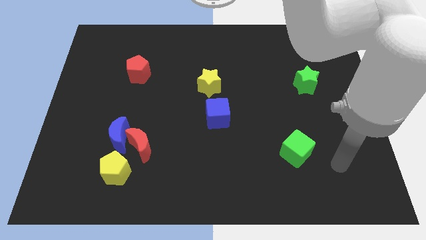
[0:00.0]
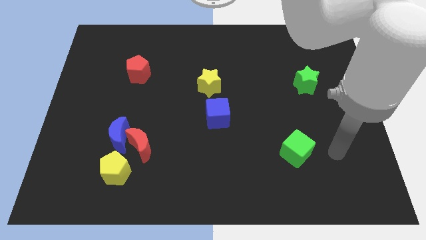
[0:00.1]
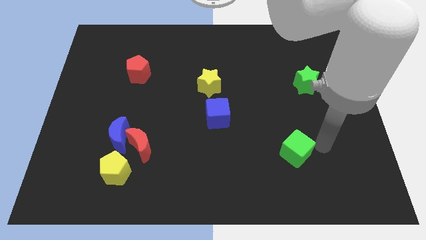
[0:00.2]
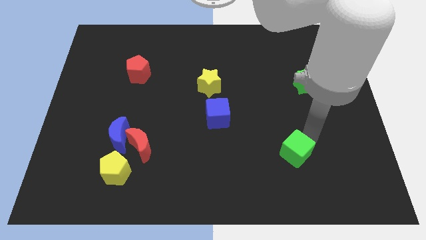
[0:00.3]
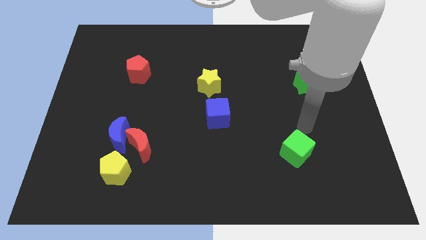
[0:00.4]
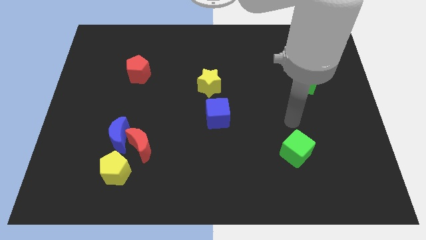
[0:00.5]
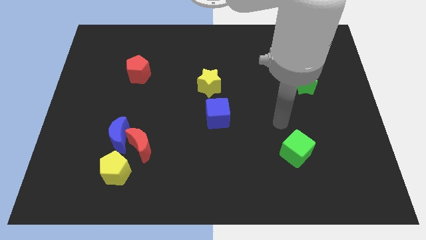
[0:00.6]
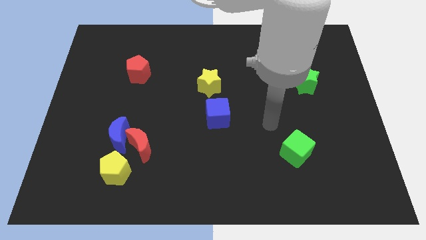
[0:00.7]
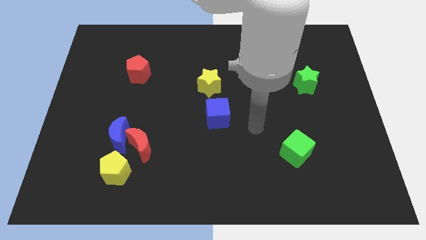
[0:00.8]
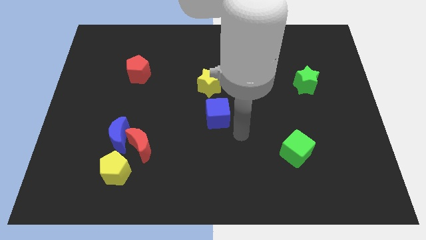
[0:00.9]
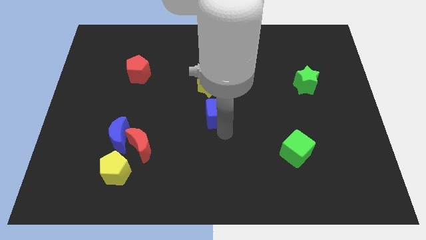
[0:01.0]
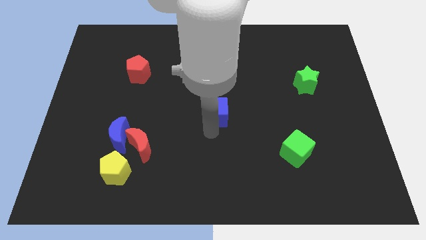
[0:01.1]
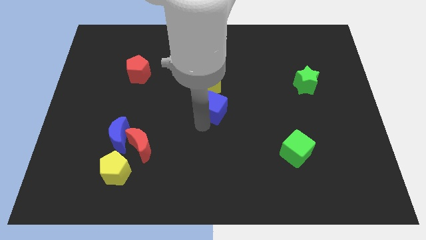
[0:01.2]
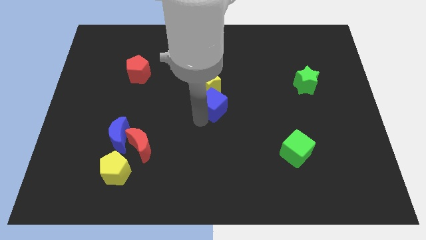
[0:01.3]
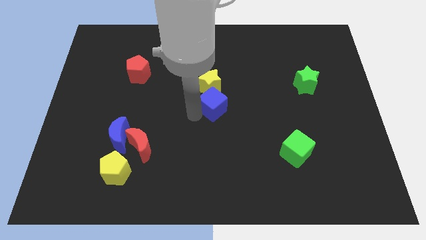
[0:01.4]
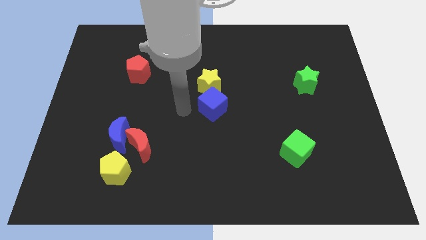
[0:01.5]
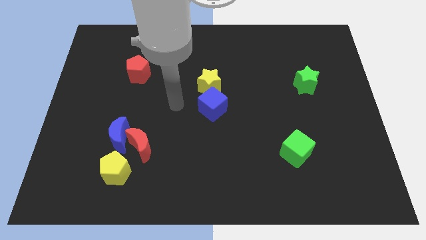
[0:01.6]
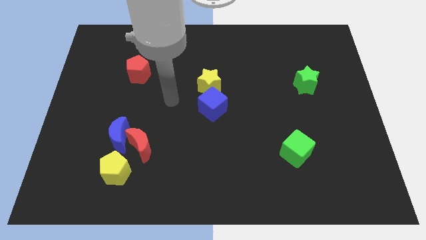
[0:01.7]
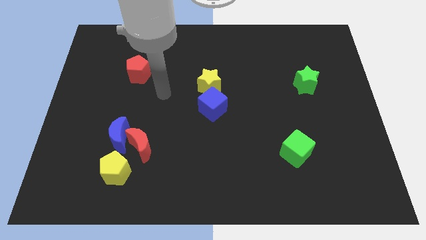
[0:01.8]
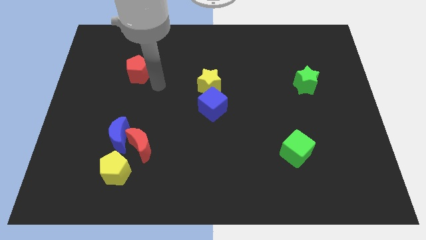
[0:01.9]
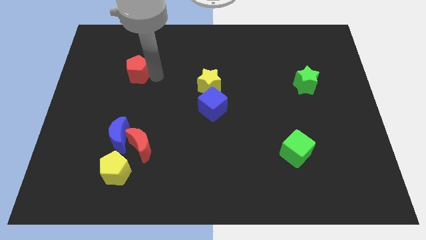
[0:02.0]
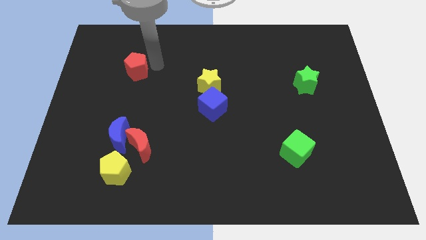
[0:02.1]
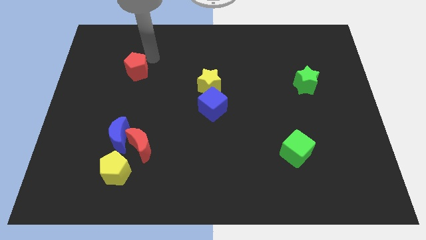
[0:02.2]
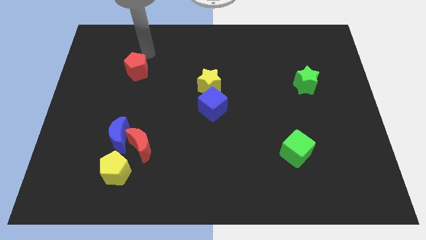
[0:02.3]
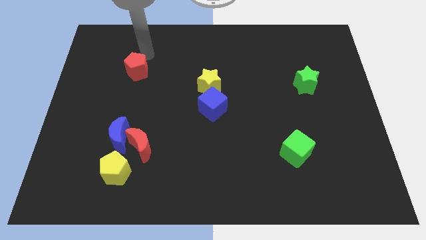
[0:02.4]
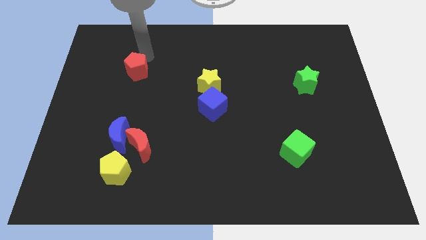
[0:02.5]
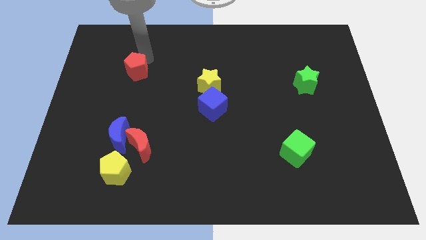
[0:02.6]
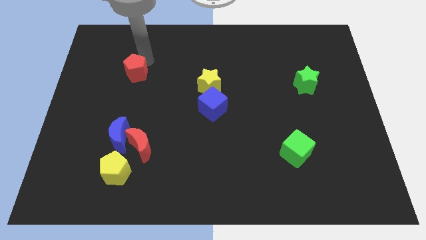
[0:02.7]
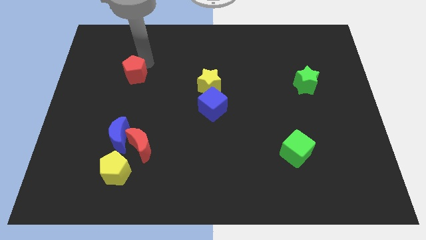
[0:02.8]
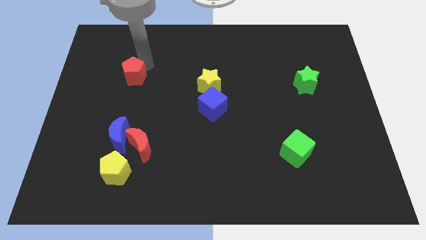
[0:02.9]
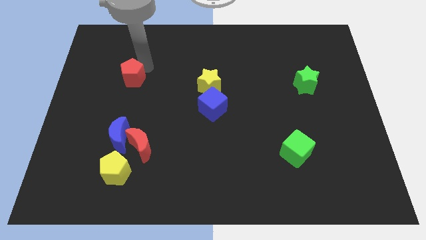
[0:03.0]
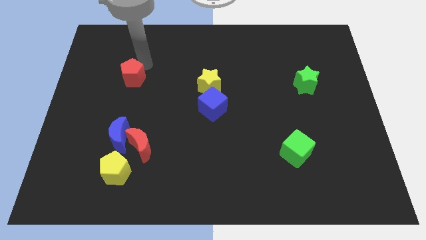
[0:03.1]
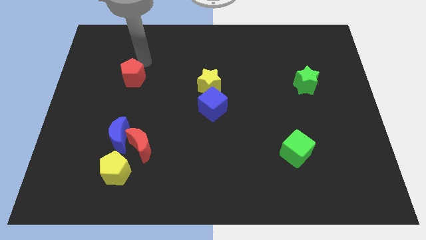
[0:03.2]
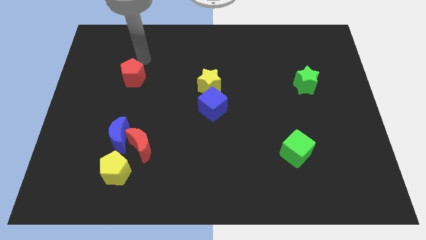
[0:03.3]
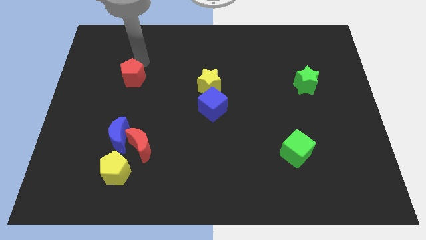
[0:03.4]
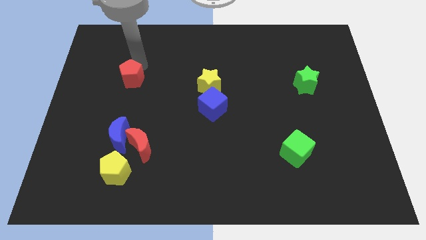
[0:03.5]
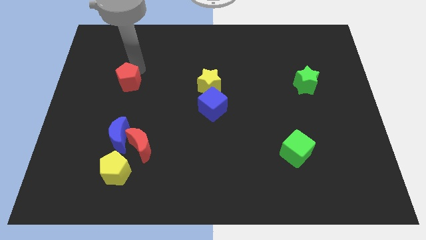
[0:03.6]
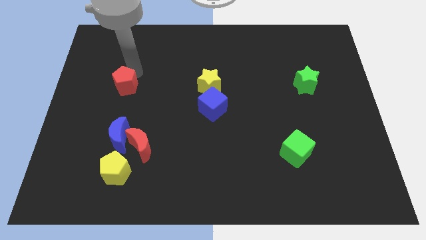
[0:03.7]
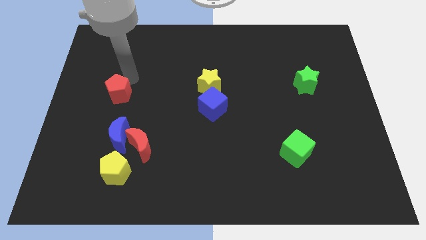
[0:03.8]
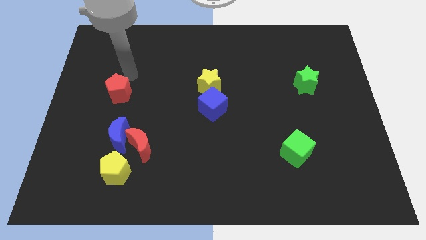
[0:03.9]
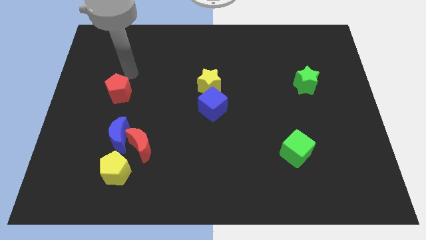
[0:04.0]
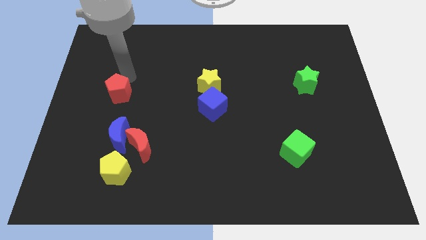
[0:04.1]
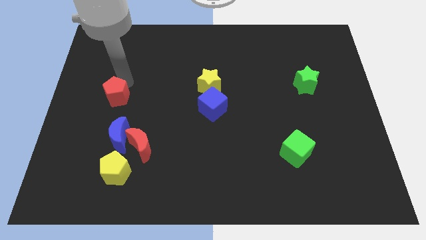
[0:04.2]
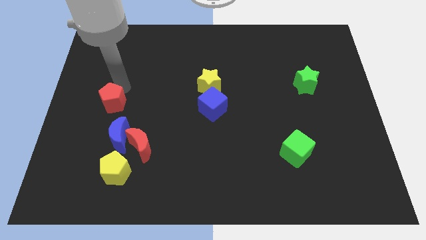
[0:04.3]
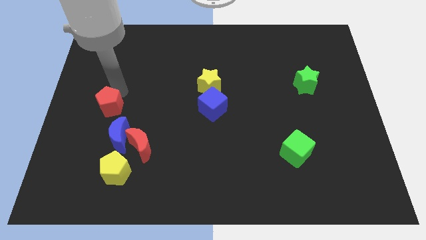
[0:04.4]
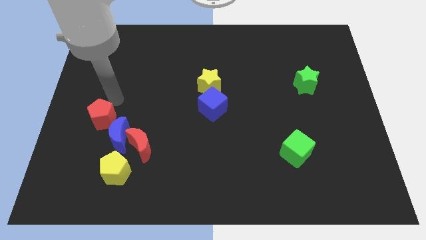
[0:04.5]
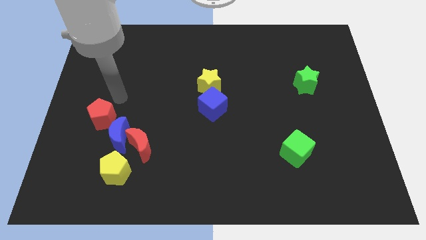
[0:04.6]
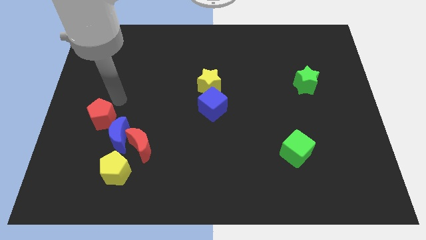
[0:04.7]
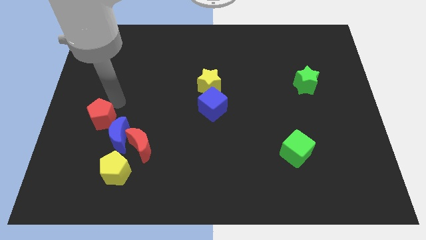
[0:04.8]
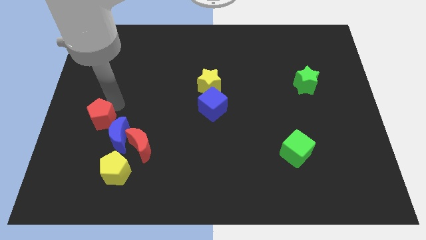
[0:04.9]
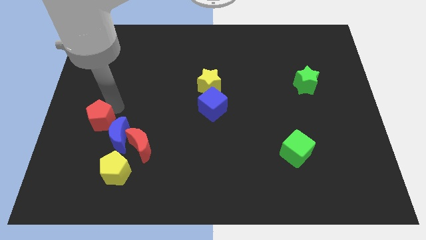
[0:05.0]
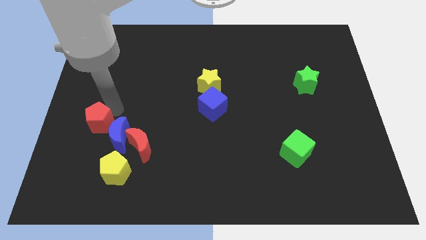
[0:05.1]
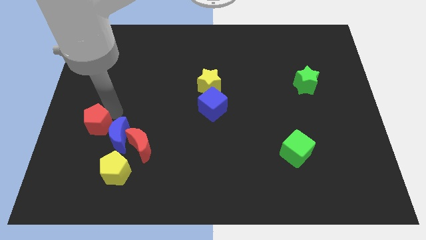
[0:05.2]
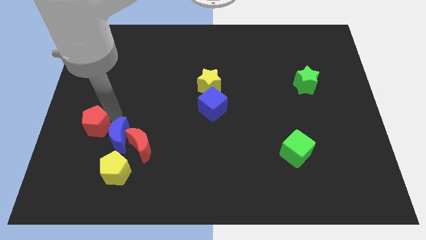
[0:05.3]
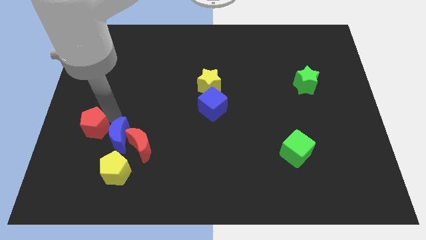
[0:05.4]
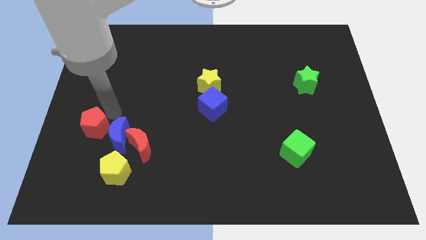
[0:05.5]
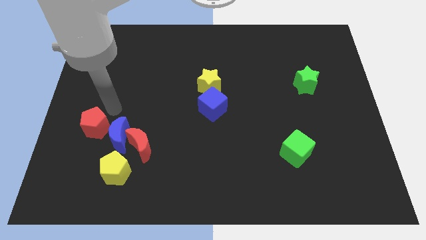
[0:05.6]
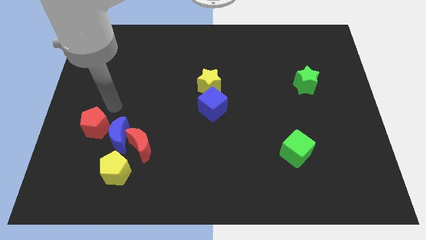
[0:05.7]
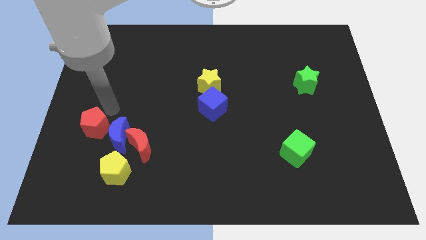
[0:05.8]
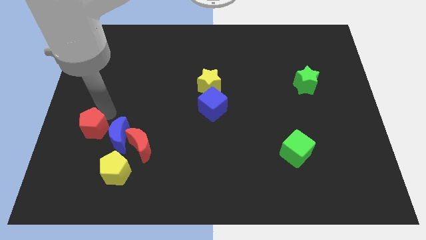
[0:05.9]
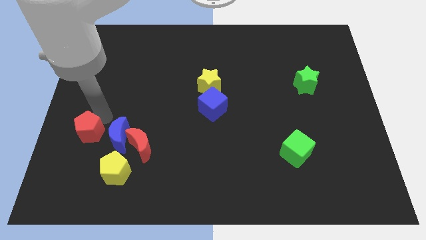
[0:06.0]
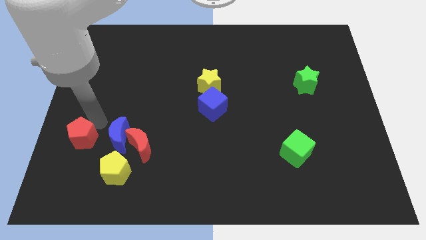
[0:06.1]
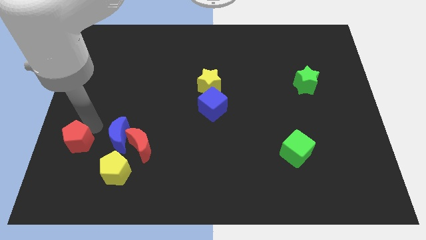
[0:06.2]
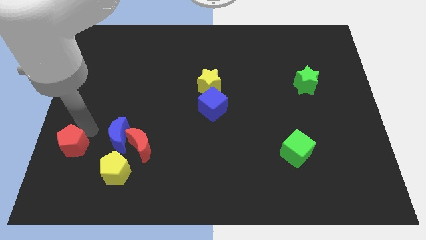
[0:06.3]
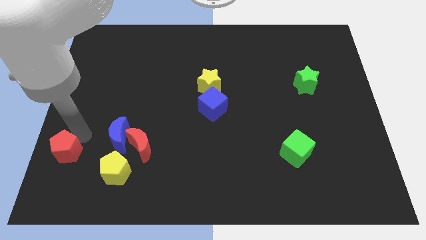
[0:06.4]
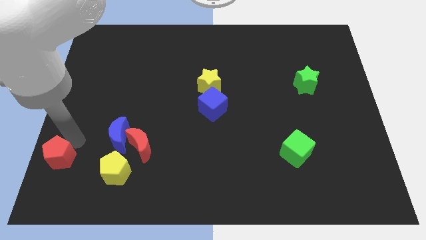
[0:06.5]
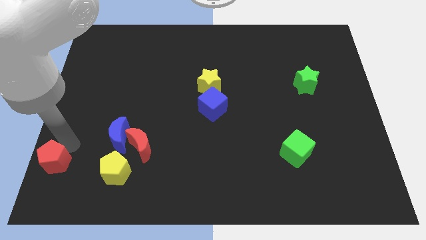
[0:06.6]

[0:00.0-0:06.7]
put the red pentagon to the bottom left corner
